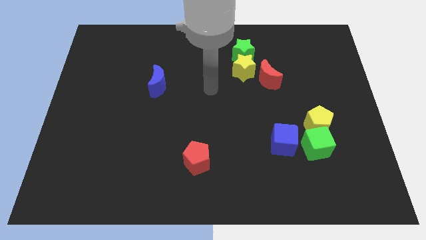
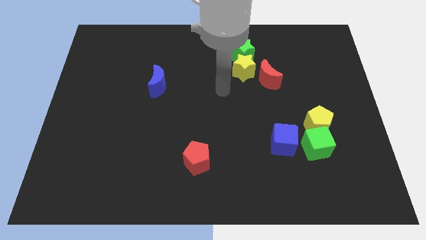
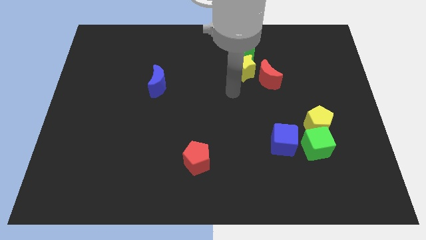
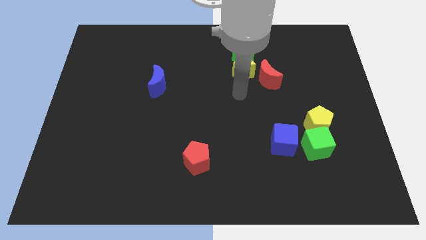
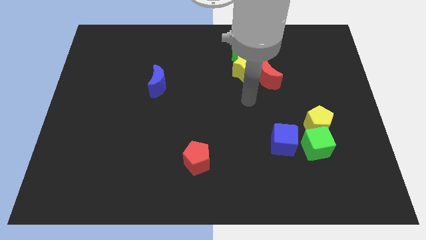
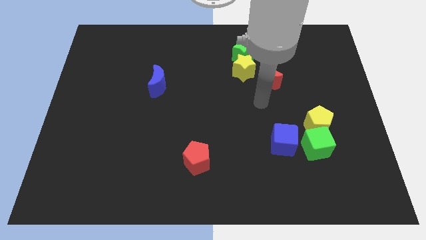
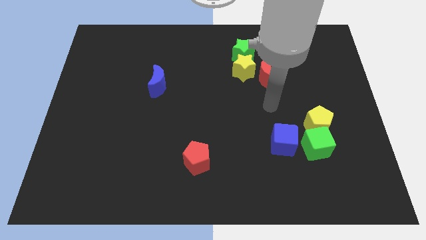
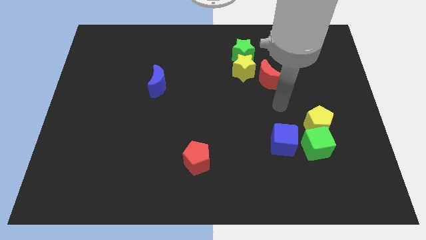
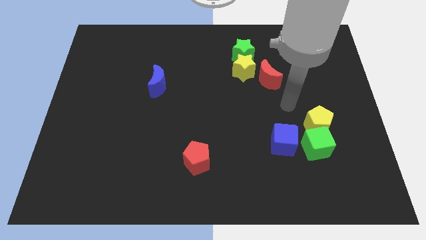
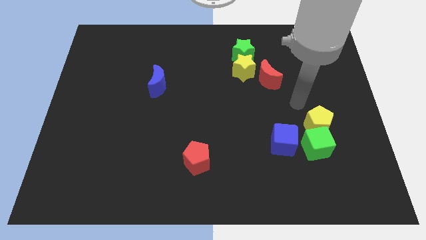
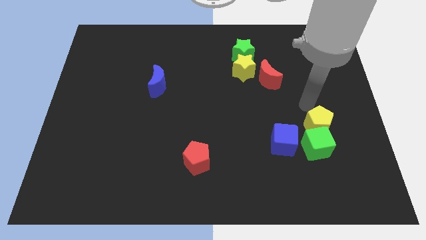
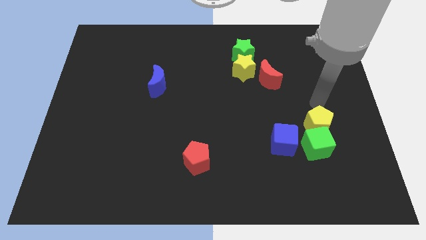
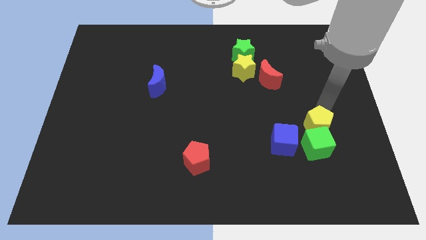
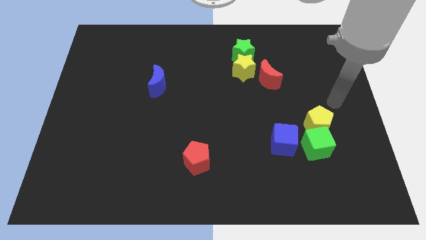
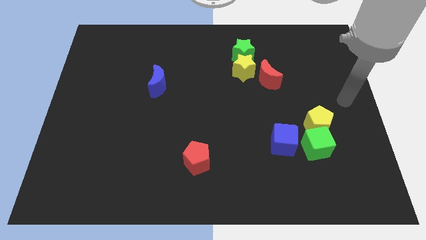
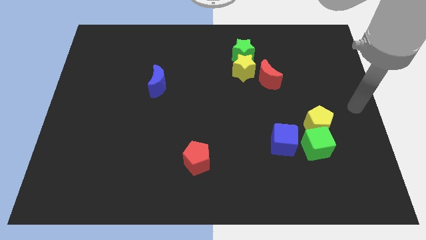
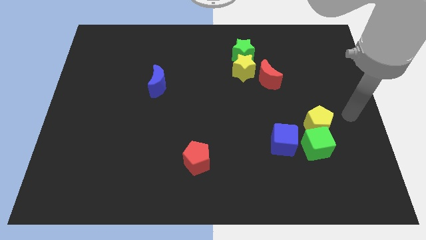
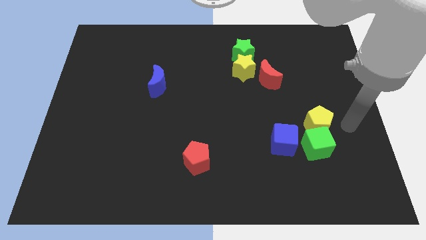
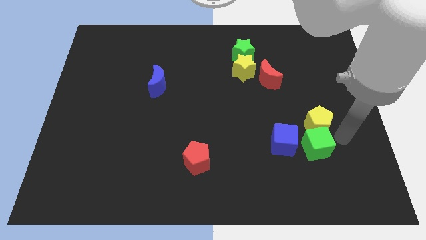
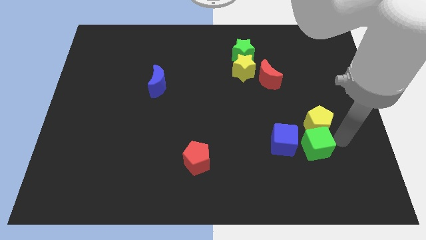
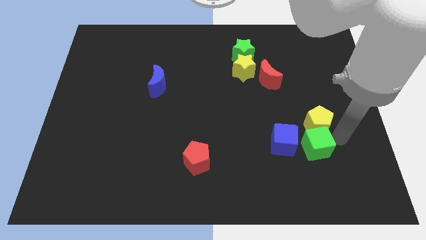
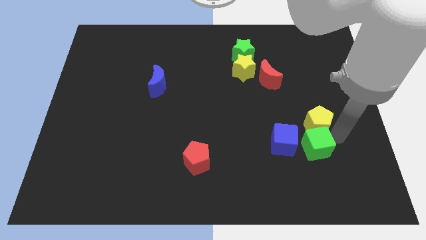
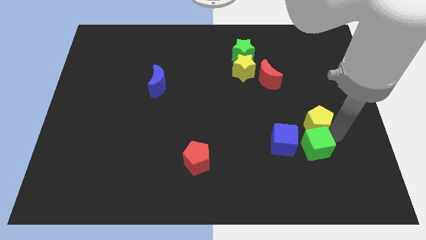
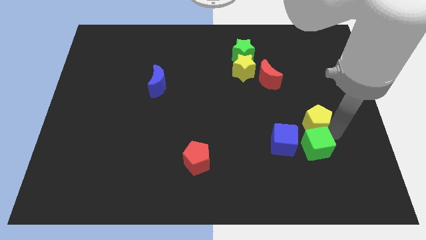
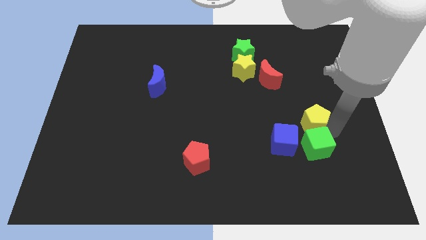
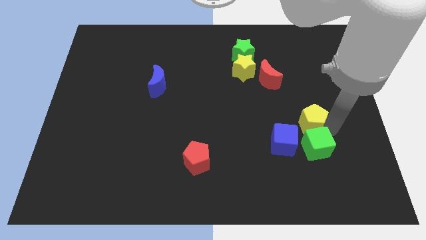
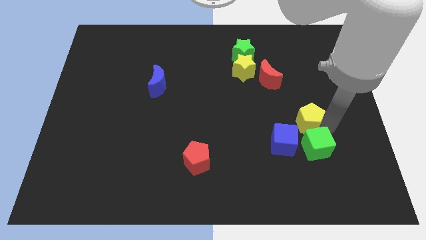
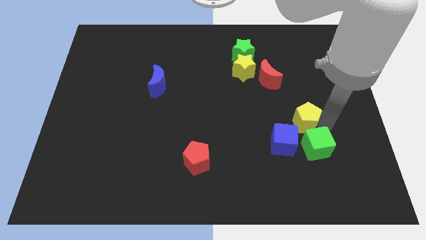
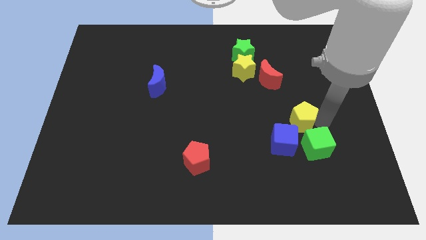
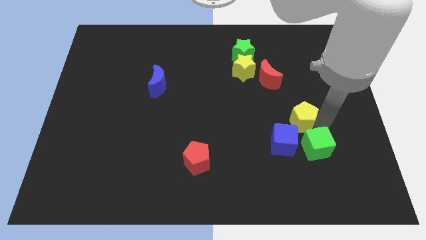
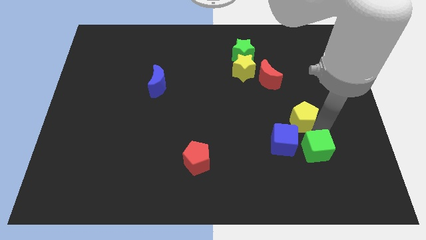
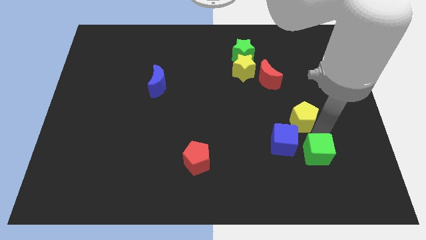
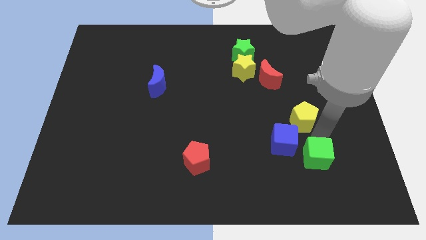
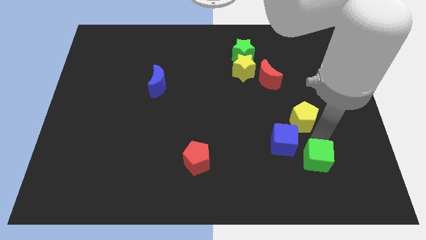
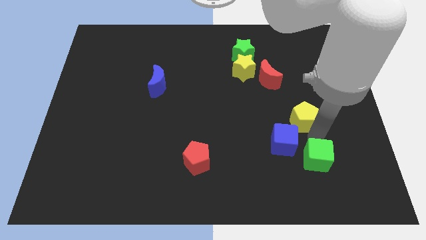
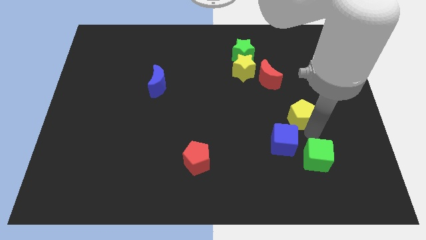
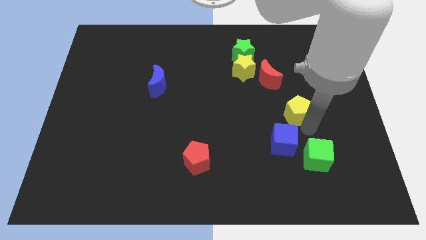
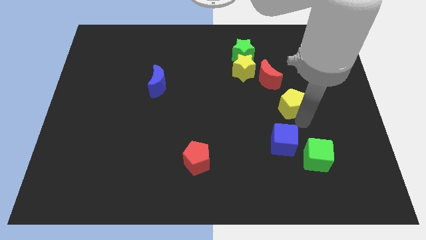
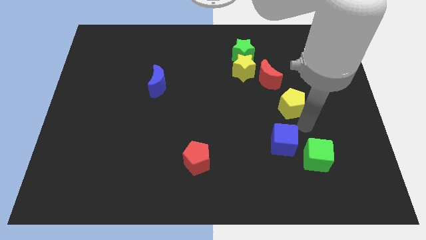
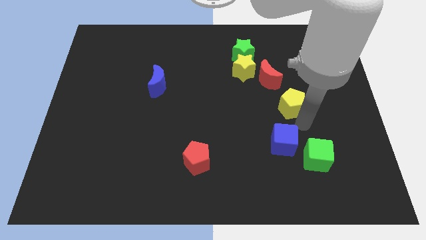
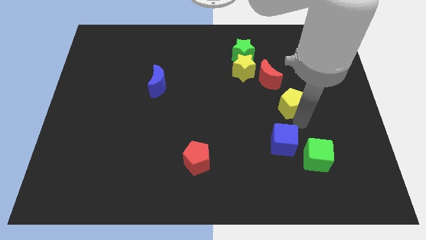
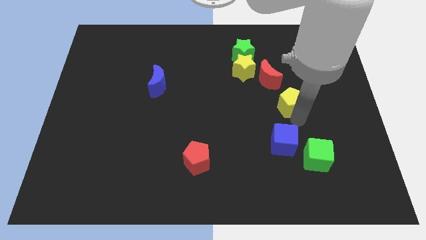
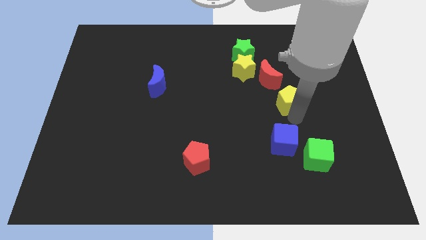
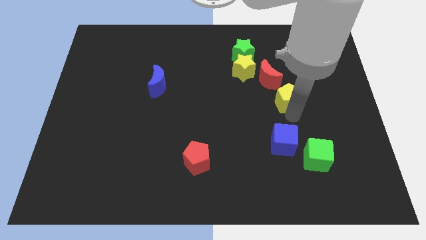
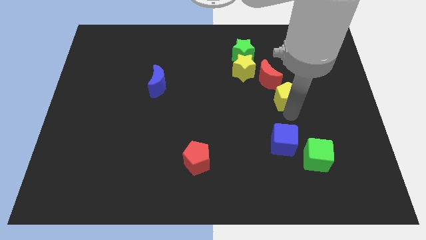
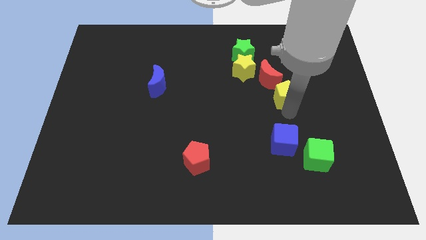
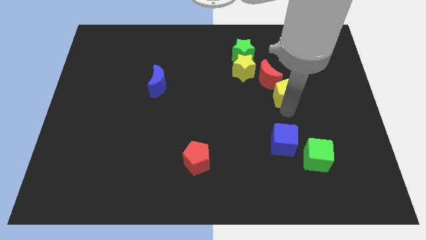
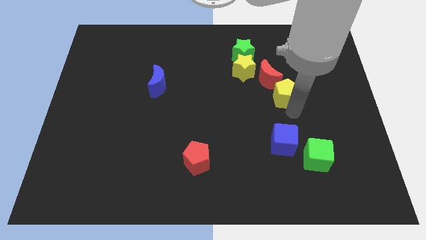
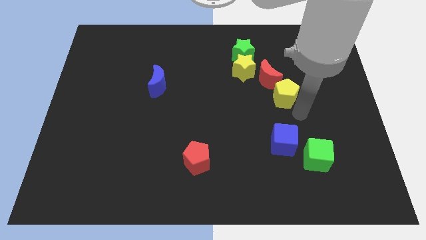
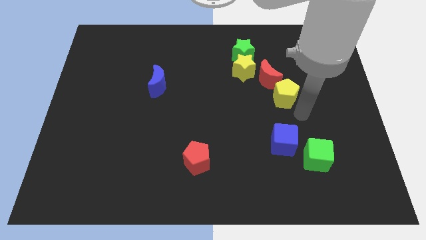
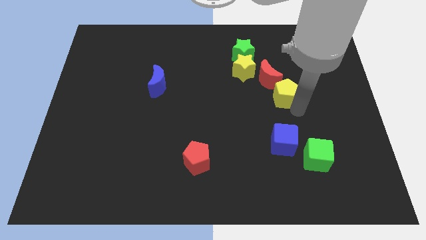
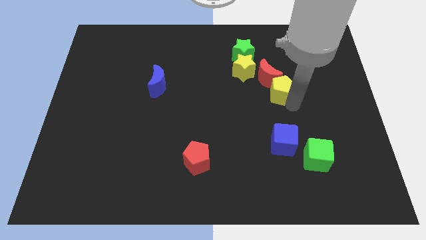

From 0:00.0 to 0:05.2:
push the yellow pentagon close to the red moon

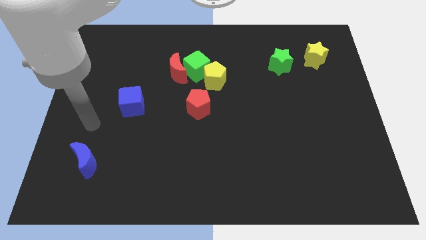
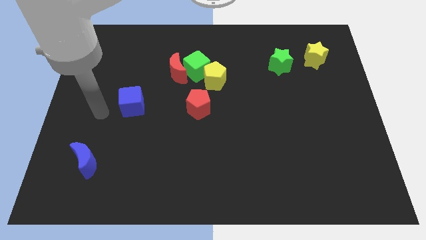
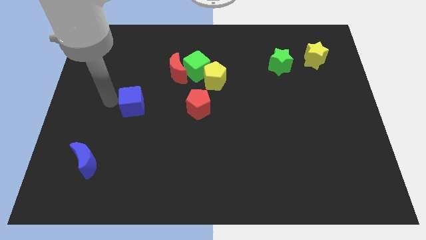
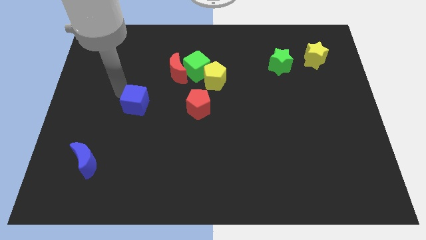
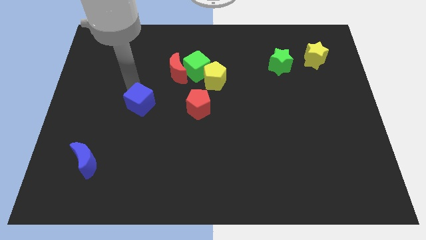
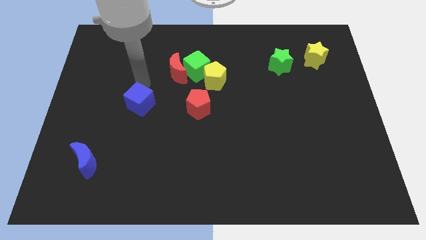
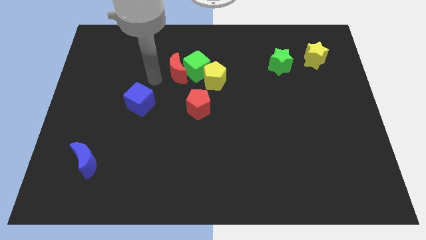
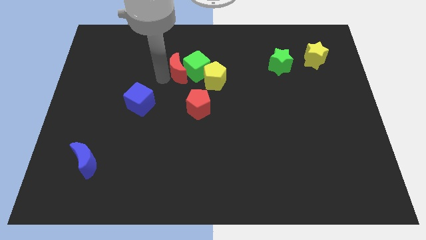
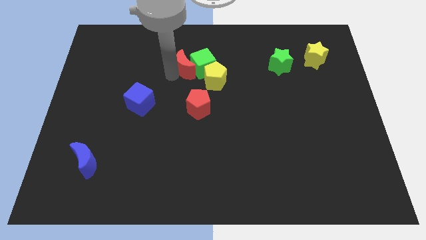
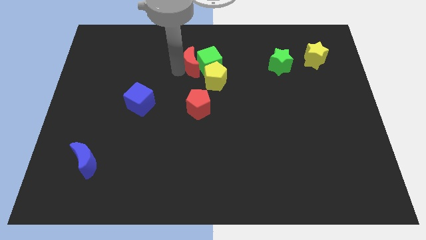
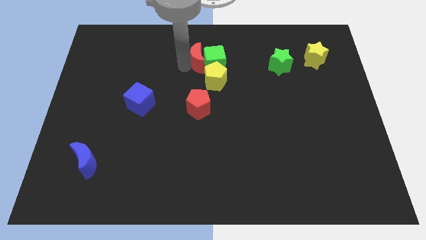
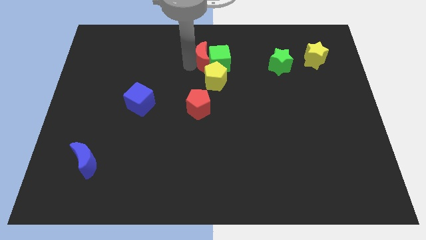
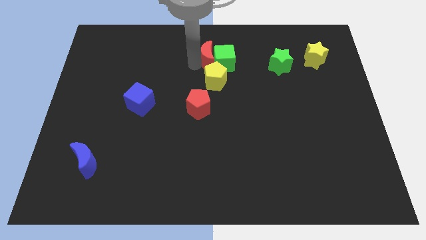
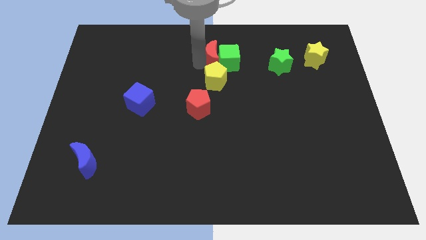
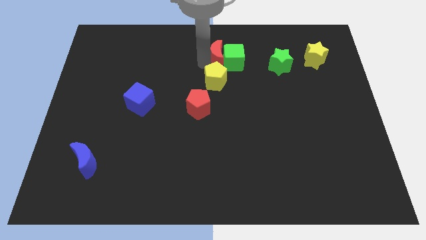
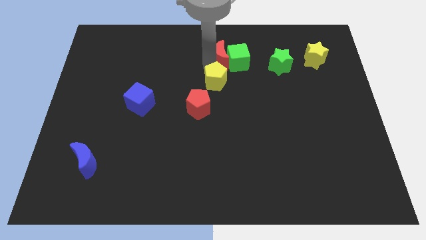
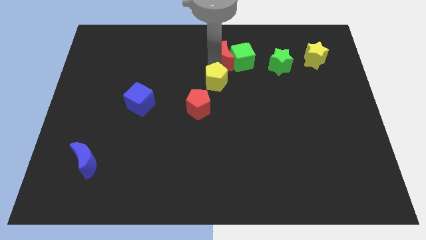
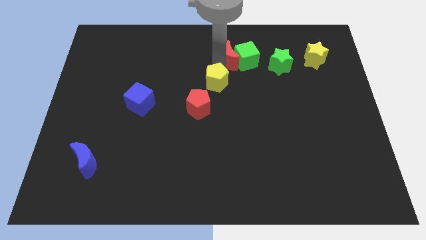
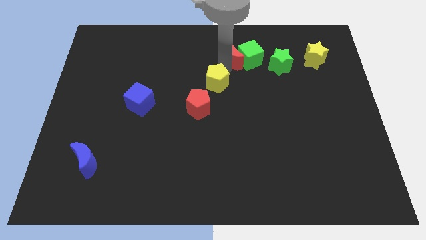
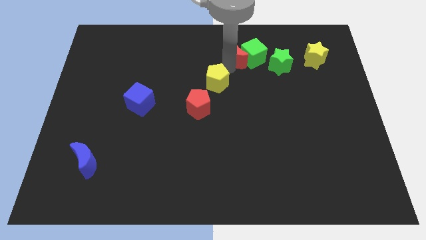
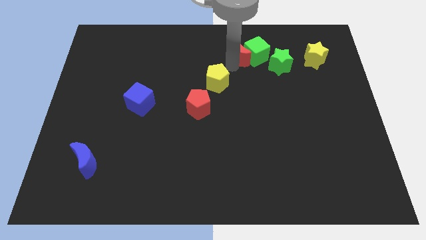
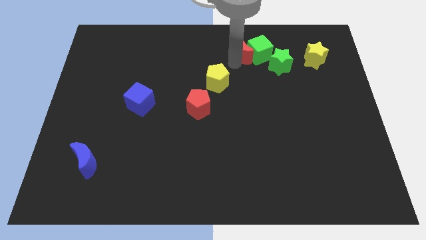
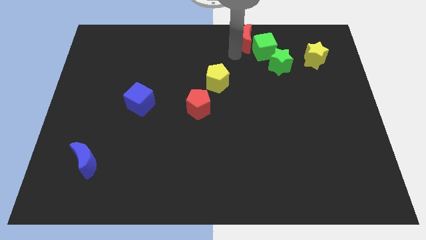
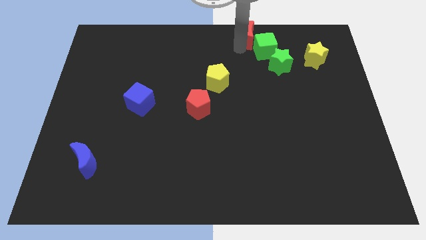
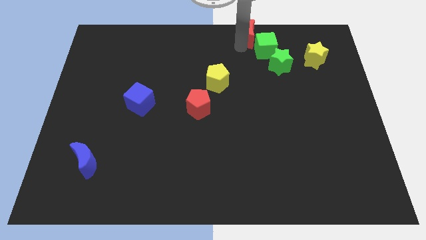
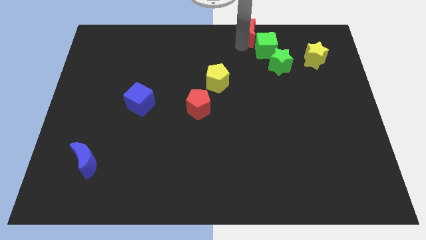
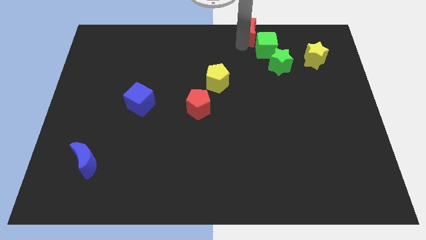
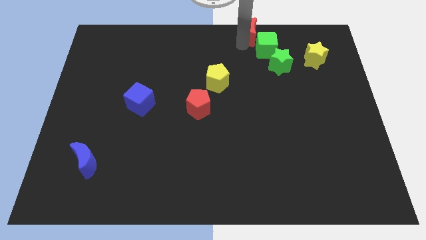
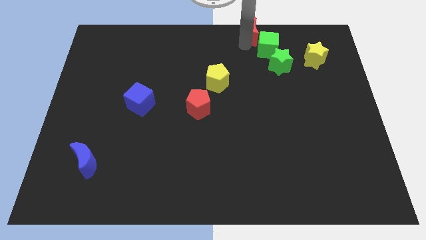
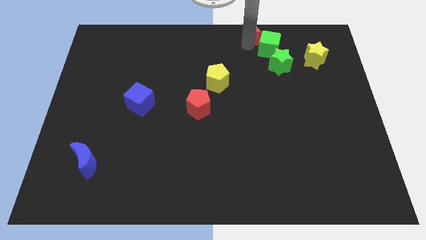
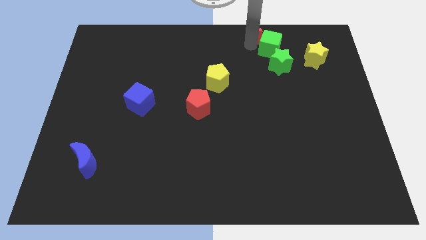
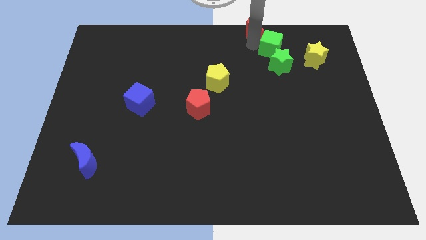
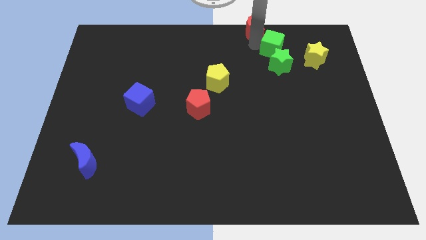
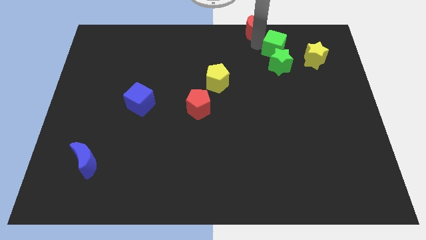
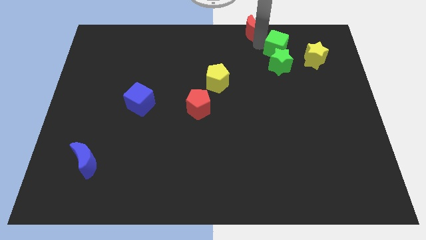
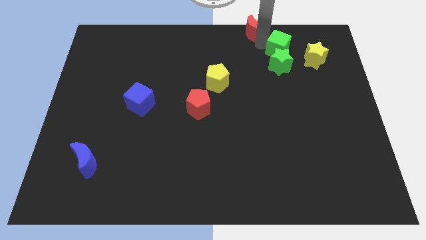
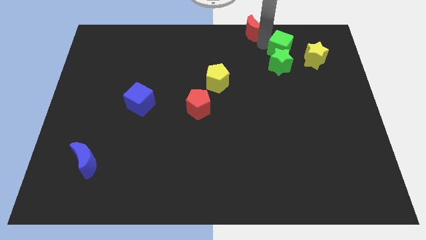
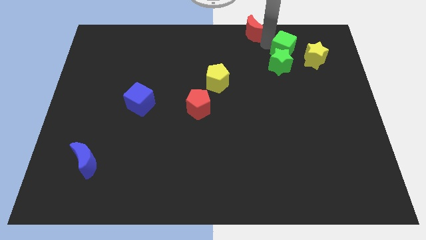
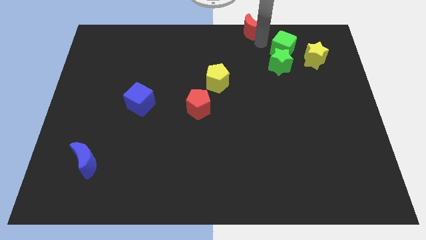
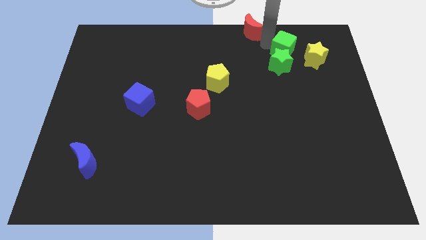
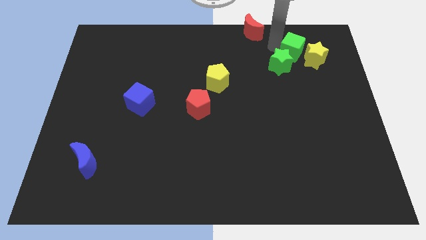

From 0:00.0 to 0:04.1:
move the green cube to the yellow star
